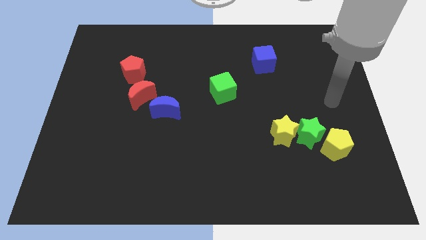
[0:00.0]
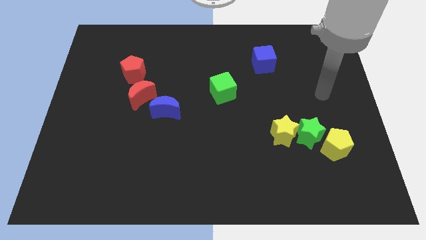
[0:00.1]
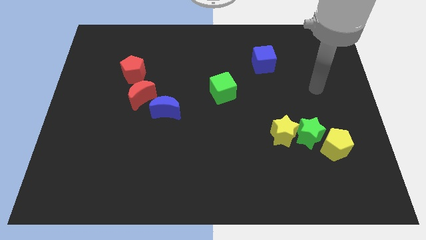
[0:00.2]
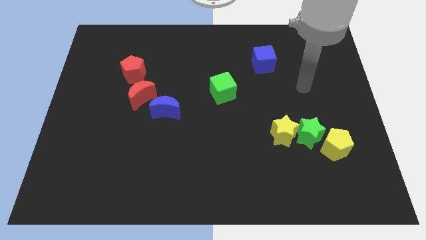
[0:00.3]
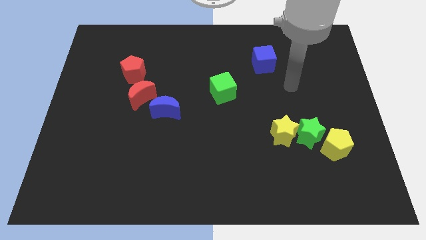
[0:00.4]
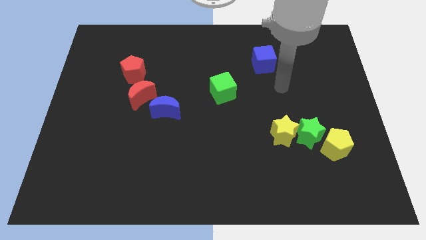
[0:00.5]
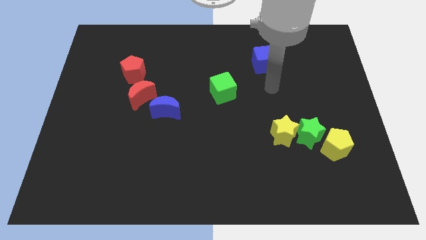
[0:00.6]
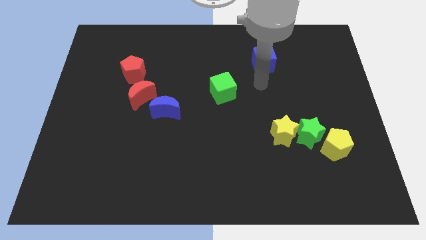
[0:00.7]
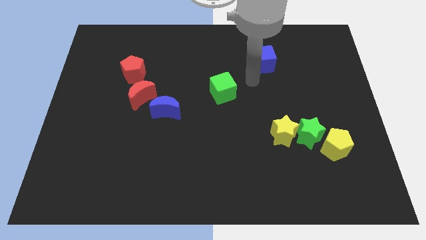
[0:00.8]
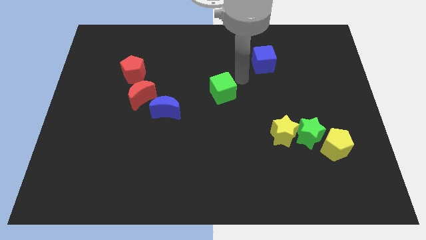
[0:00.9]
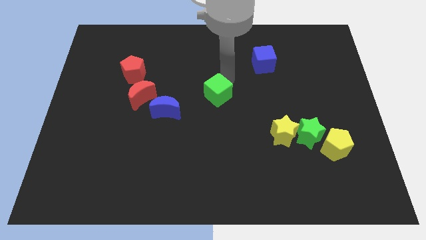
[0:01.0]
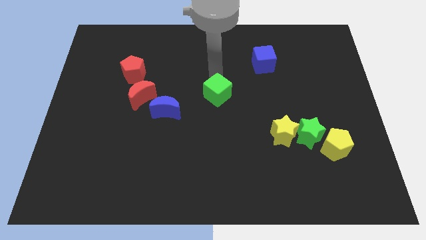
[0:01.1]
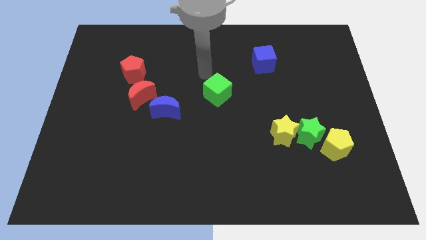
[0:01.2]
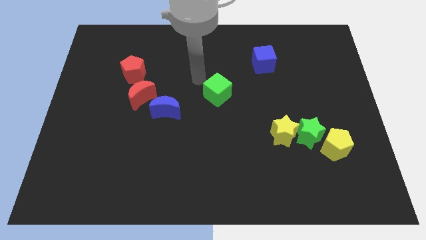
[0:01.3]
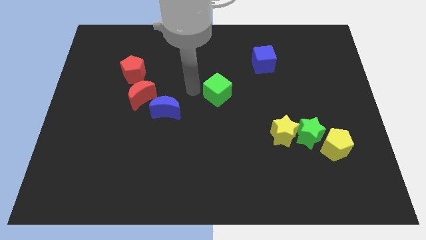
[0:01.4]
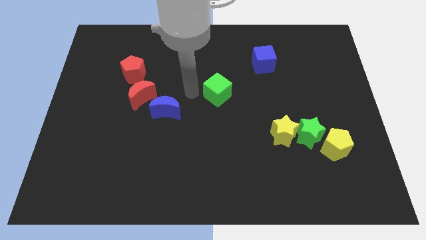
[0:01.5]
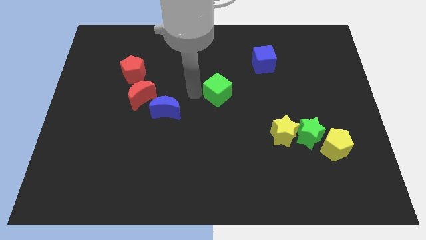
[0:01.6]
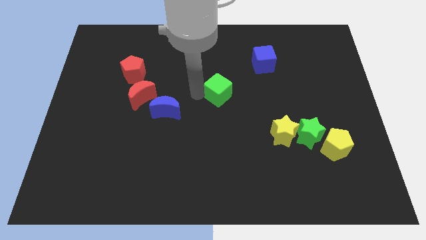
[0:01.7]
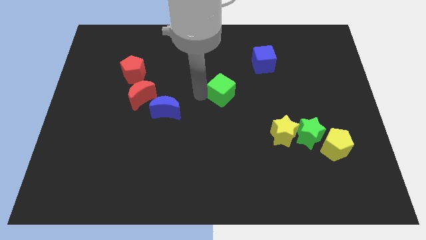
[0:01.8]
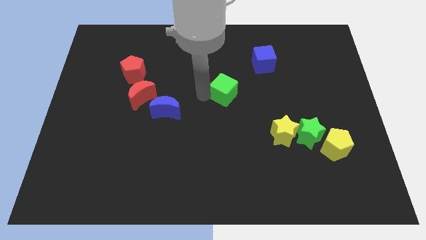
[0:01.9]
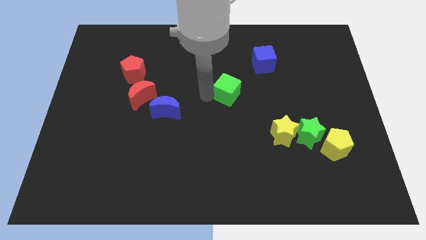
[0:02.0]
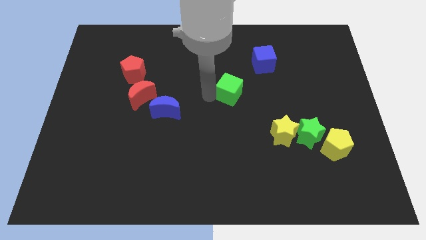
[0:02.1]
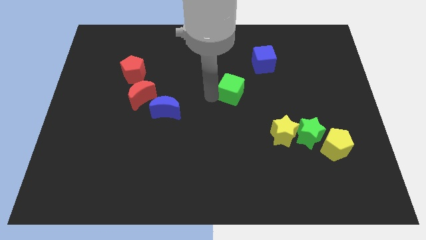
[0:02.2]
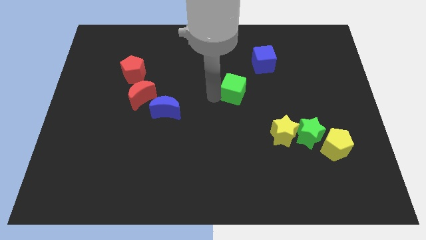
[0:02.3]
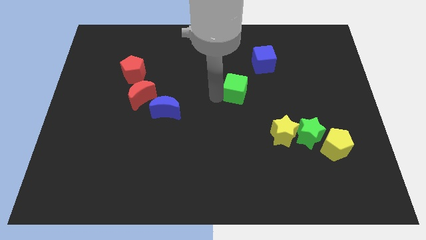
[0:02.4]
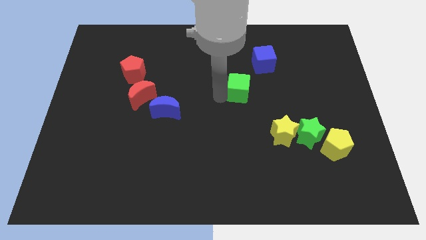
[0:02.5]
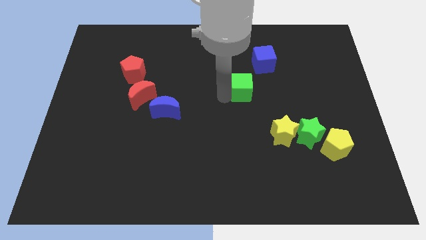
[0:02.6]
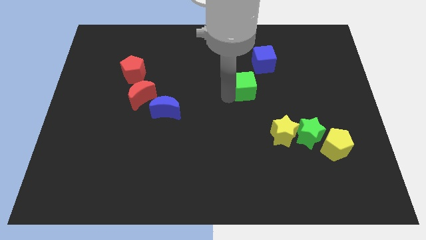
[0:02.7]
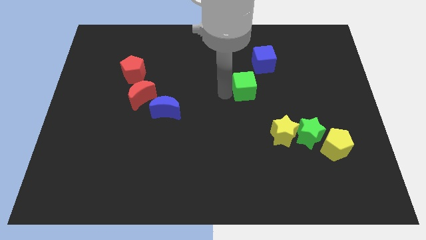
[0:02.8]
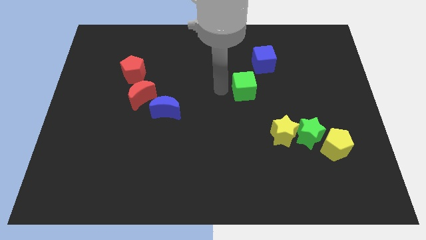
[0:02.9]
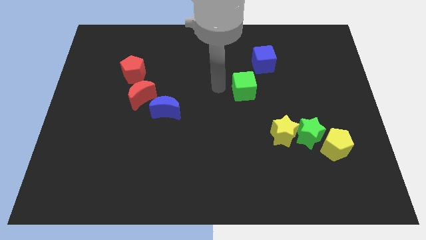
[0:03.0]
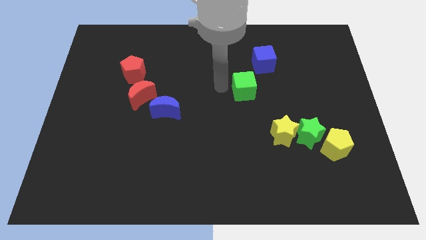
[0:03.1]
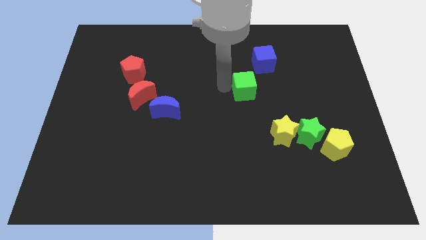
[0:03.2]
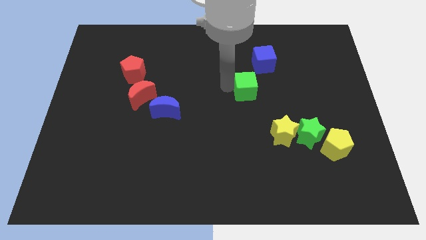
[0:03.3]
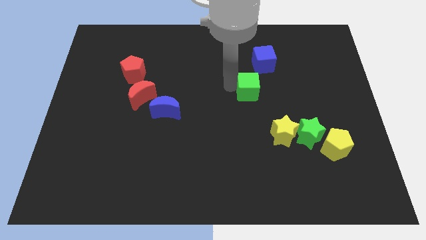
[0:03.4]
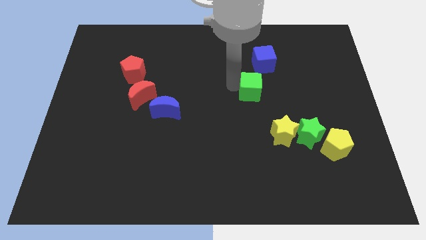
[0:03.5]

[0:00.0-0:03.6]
slightly push the green cube to the right

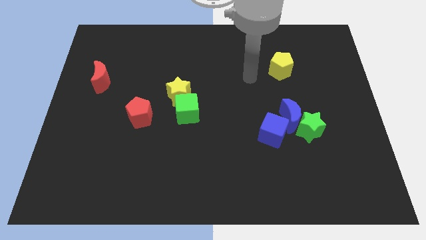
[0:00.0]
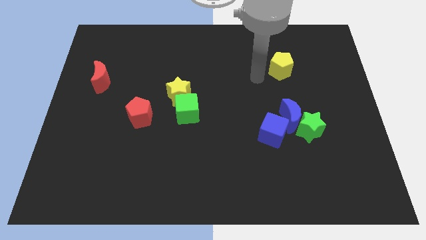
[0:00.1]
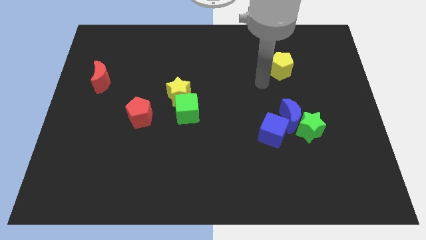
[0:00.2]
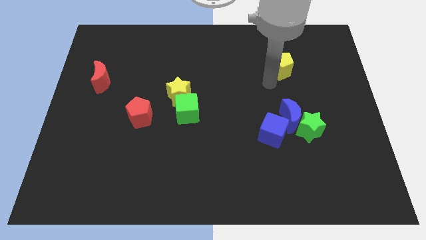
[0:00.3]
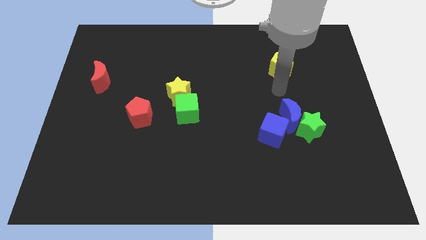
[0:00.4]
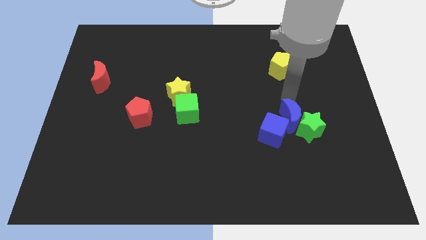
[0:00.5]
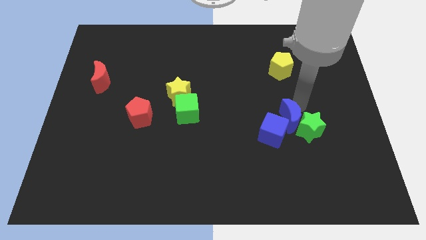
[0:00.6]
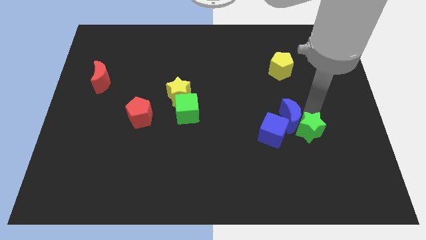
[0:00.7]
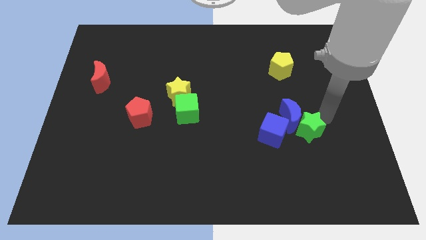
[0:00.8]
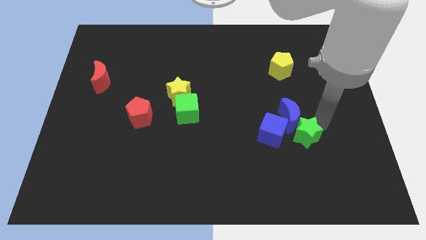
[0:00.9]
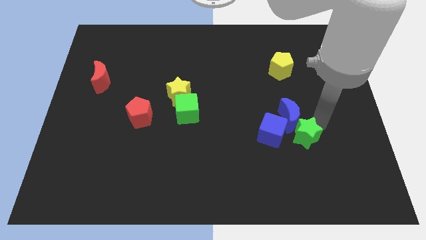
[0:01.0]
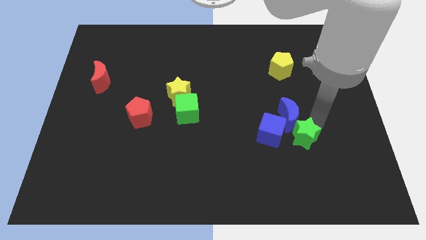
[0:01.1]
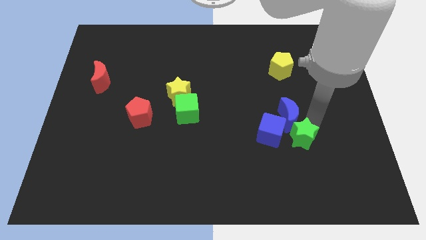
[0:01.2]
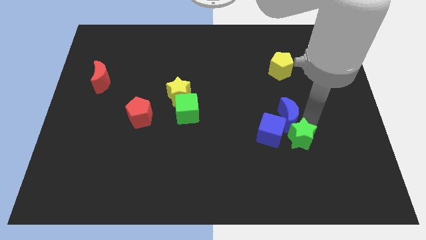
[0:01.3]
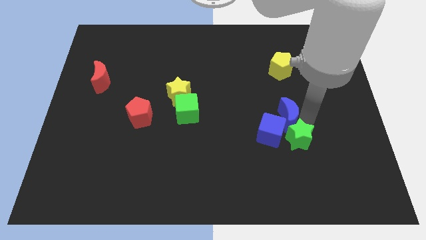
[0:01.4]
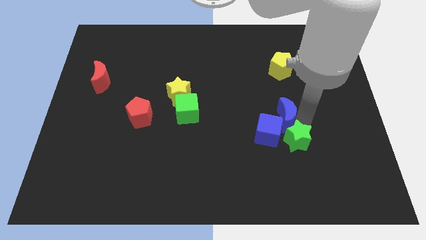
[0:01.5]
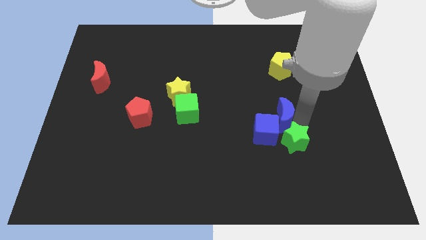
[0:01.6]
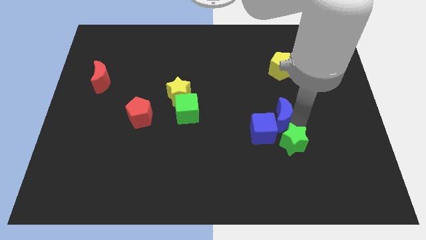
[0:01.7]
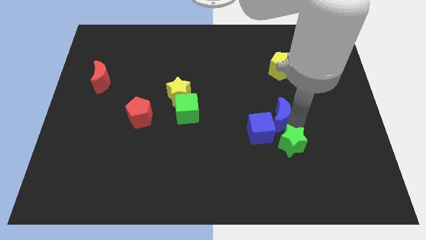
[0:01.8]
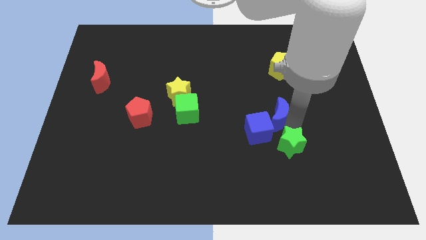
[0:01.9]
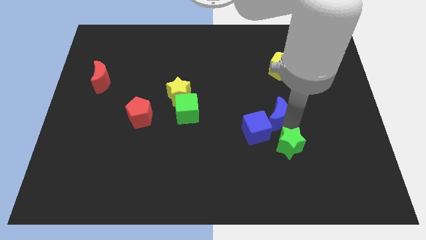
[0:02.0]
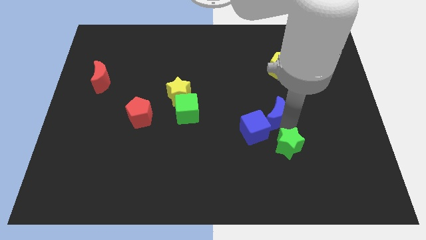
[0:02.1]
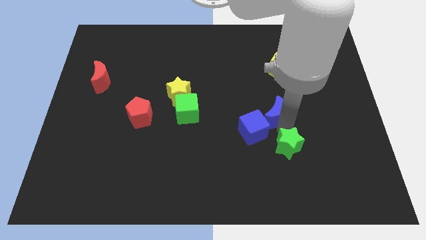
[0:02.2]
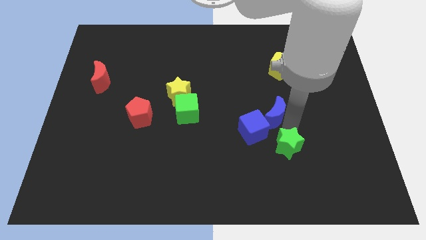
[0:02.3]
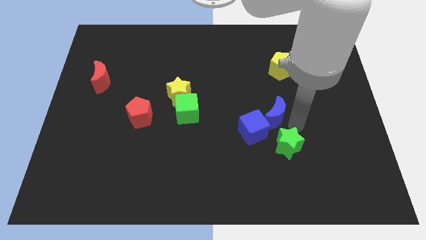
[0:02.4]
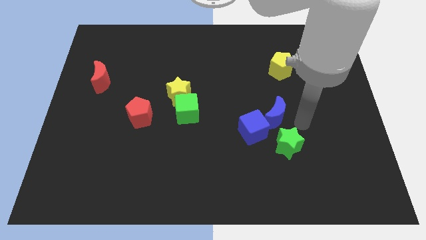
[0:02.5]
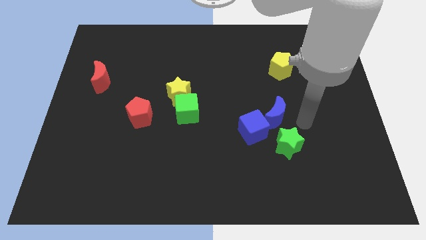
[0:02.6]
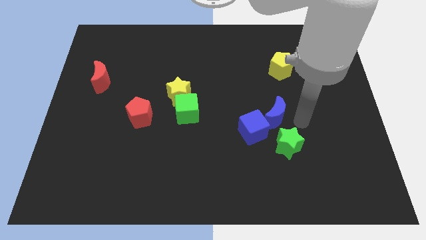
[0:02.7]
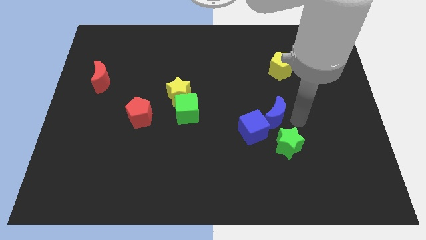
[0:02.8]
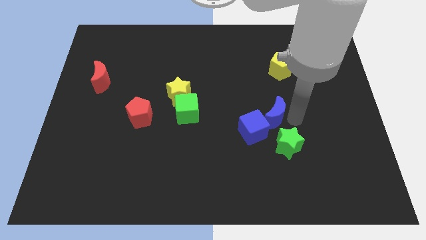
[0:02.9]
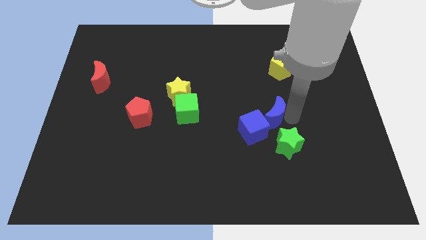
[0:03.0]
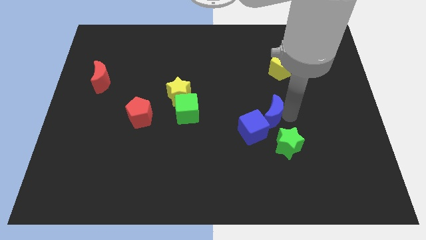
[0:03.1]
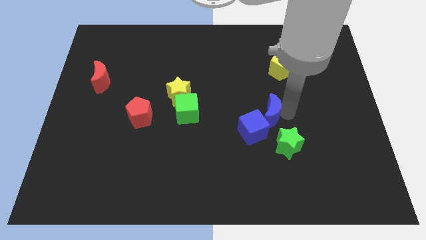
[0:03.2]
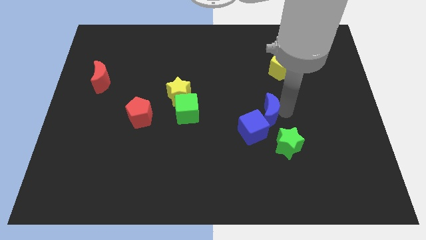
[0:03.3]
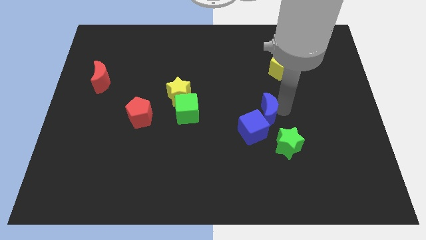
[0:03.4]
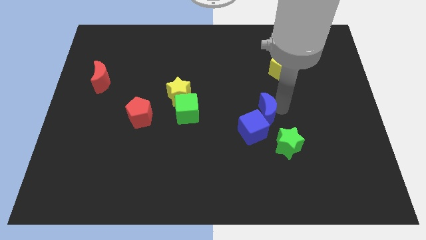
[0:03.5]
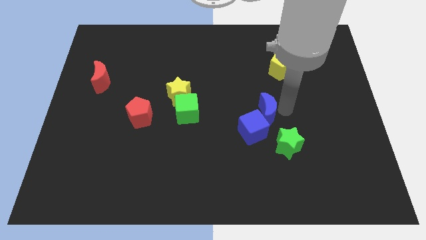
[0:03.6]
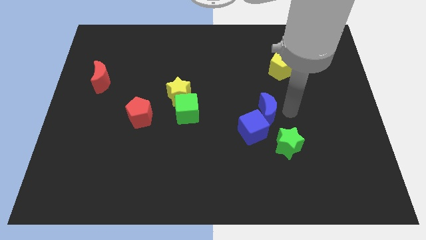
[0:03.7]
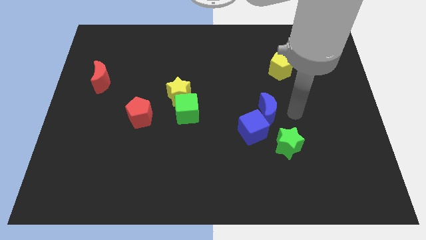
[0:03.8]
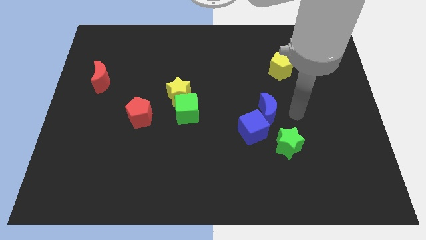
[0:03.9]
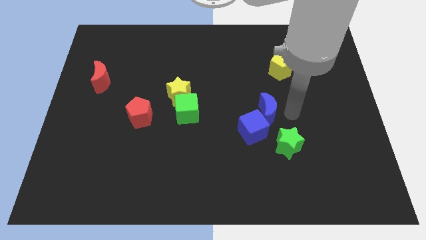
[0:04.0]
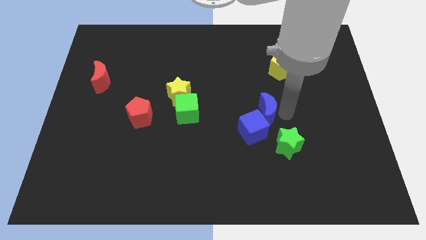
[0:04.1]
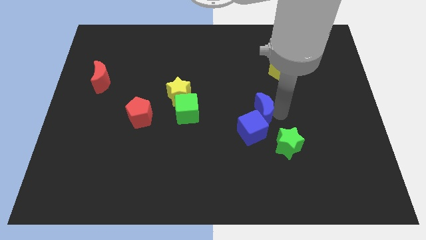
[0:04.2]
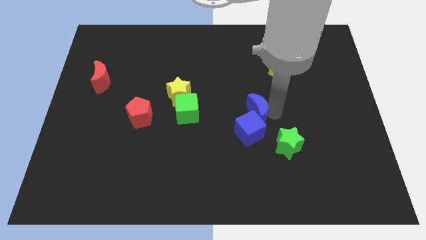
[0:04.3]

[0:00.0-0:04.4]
push the blue moon to the left a little bit

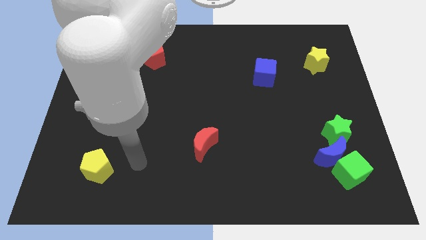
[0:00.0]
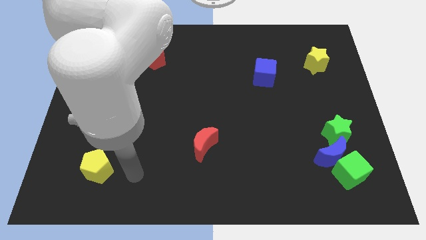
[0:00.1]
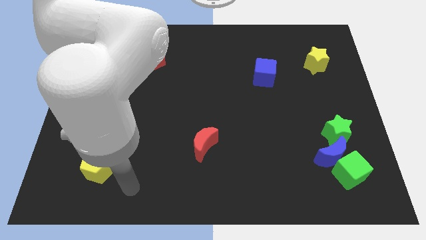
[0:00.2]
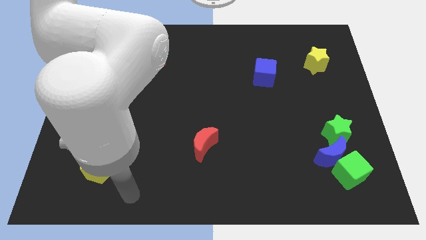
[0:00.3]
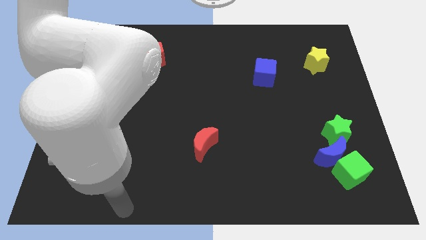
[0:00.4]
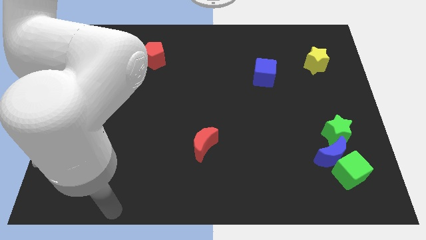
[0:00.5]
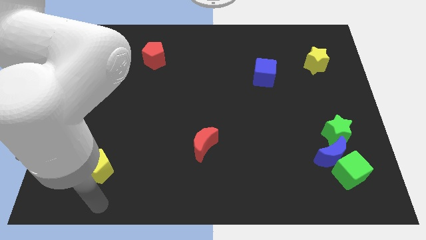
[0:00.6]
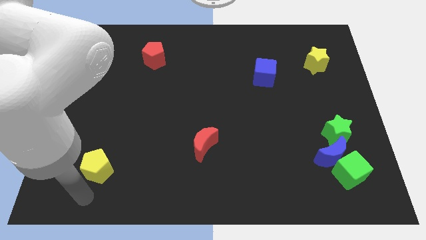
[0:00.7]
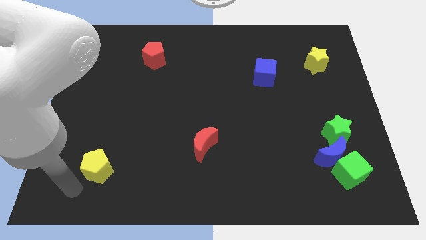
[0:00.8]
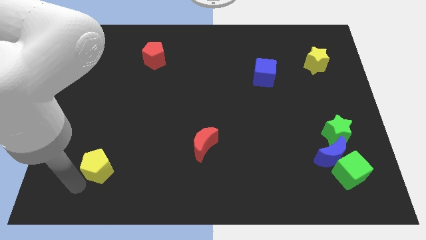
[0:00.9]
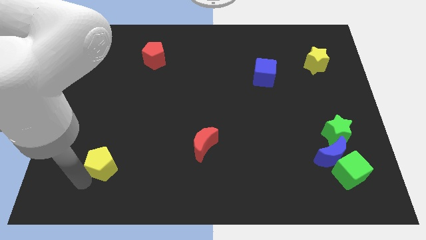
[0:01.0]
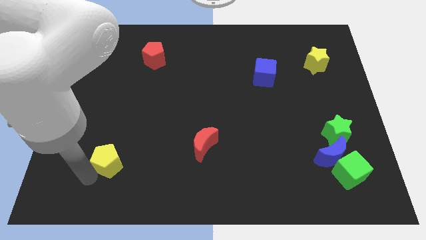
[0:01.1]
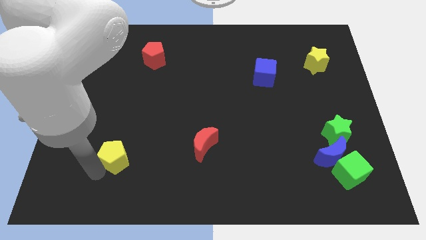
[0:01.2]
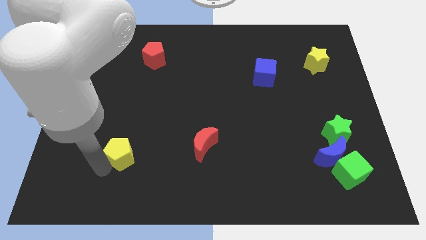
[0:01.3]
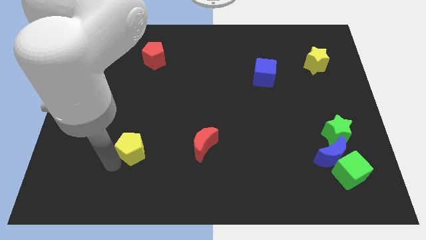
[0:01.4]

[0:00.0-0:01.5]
slide the yellow pentagon diagonally up and right slightly
